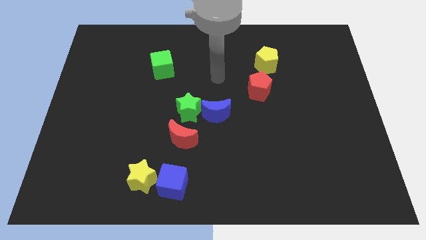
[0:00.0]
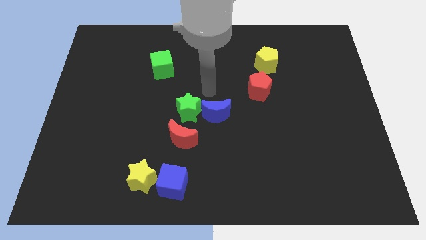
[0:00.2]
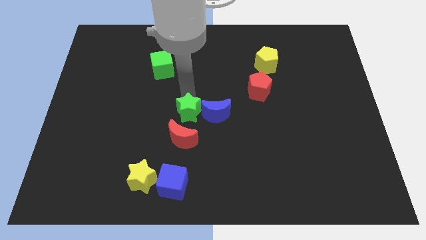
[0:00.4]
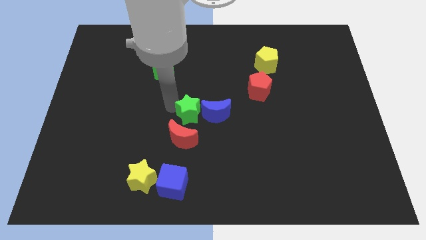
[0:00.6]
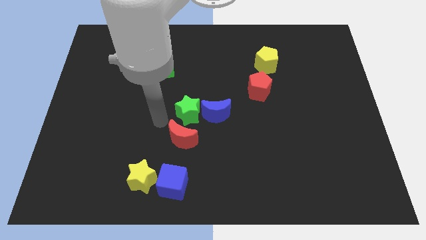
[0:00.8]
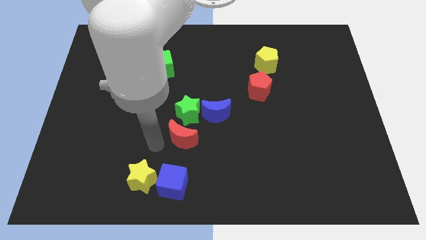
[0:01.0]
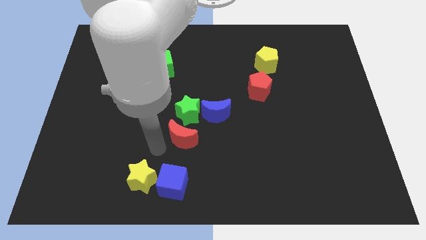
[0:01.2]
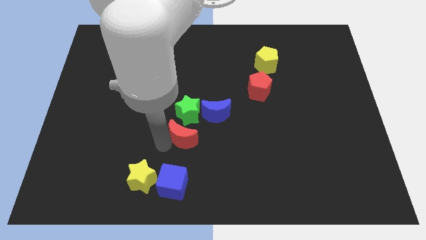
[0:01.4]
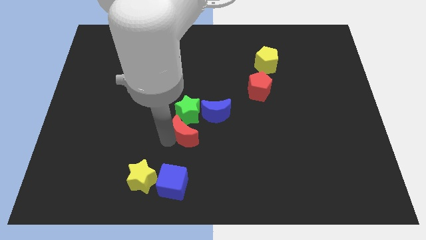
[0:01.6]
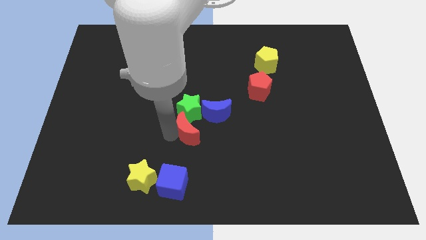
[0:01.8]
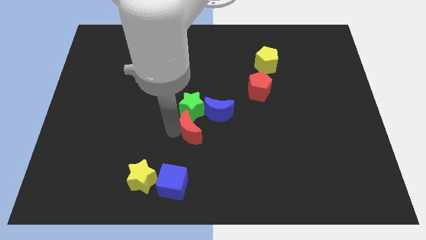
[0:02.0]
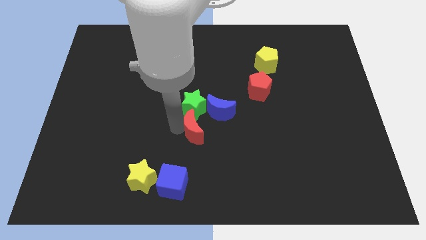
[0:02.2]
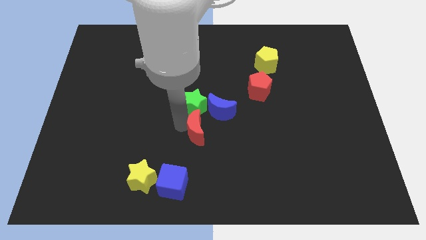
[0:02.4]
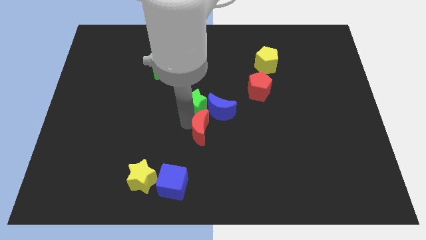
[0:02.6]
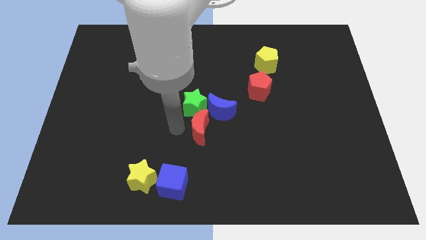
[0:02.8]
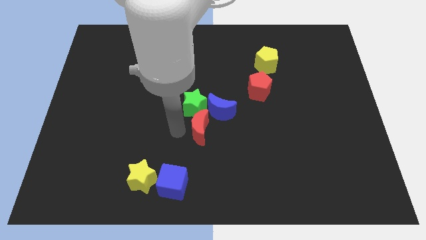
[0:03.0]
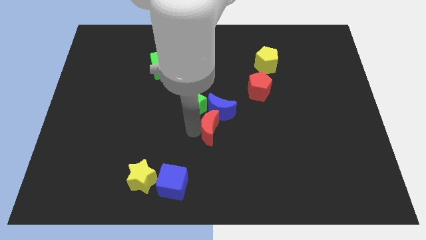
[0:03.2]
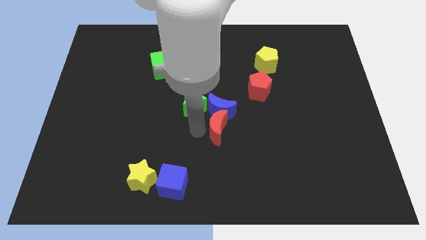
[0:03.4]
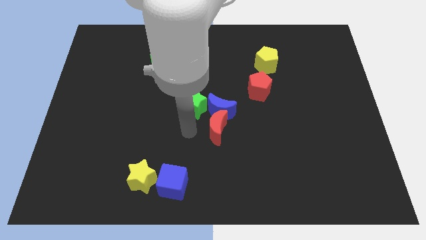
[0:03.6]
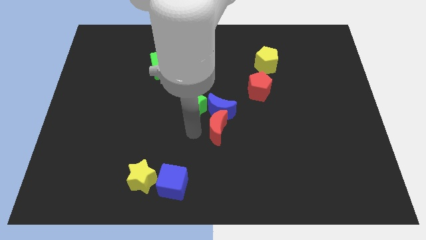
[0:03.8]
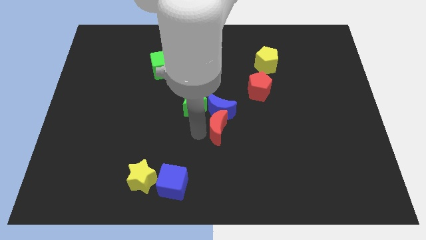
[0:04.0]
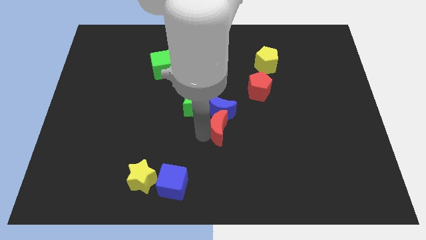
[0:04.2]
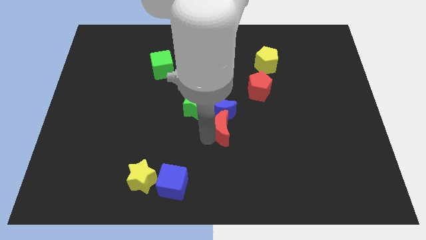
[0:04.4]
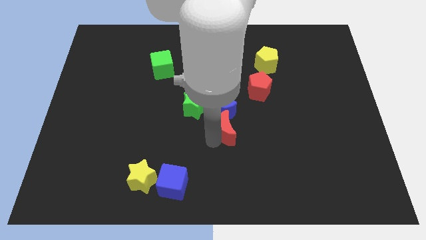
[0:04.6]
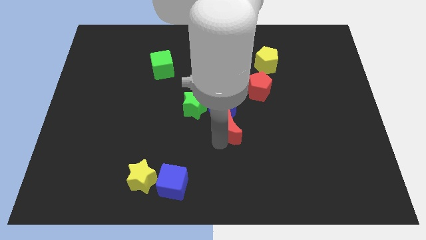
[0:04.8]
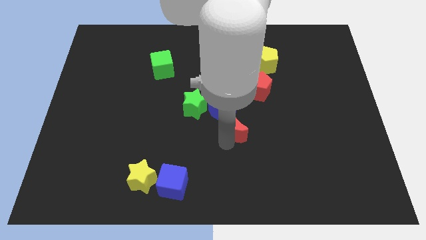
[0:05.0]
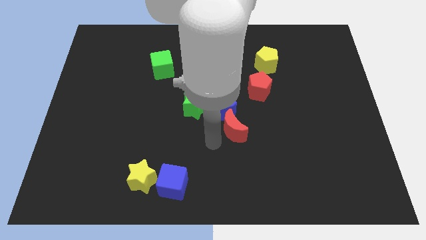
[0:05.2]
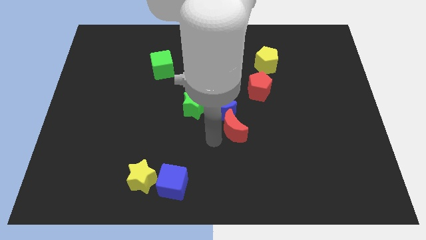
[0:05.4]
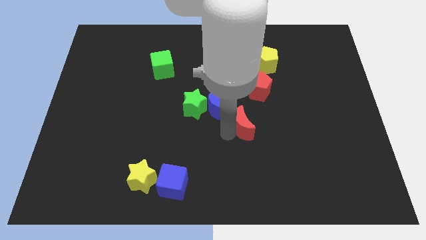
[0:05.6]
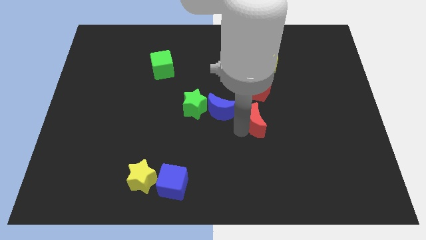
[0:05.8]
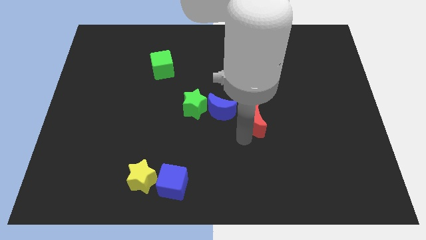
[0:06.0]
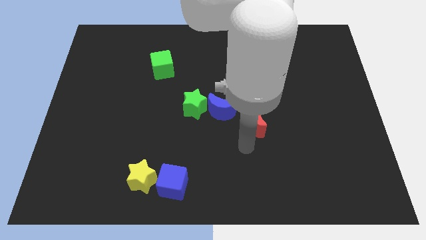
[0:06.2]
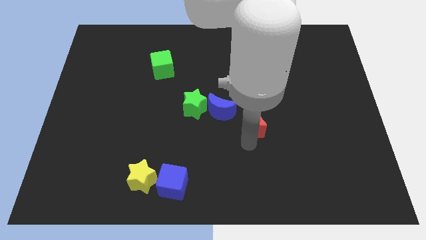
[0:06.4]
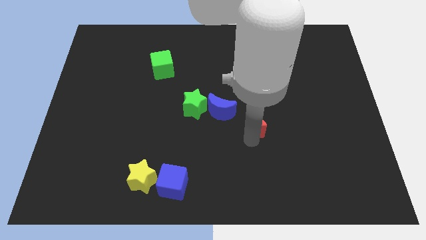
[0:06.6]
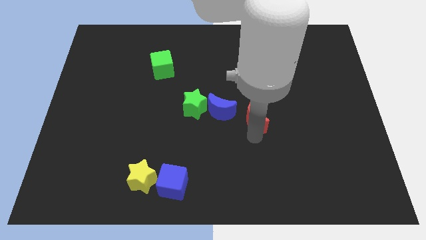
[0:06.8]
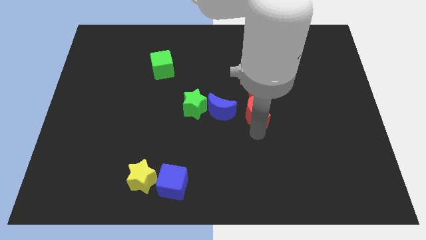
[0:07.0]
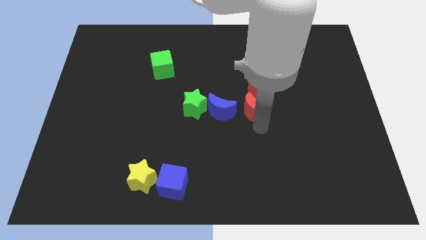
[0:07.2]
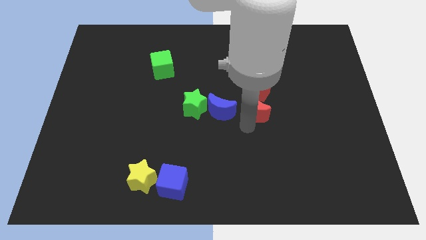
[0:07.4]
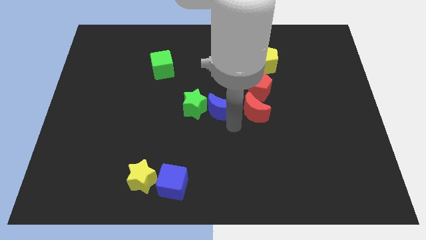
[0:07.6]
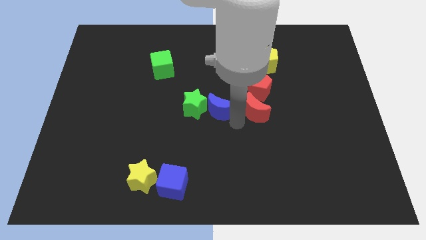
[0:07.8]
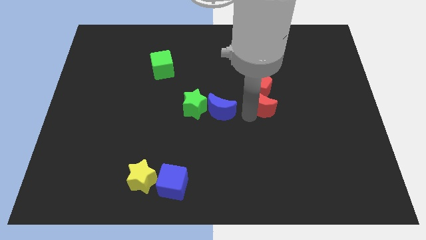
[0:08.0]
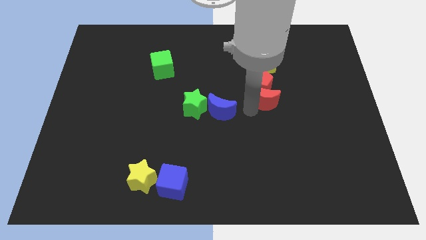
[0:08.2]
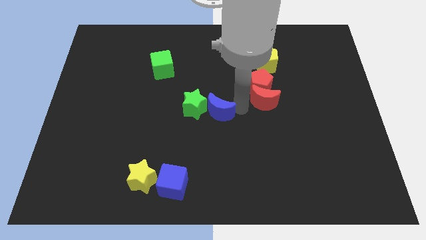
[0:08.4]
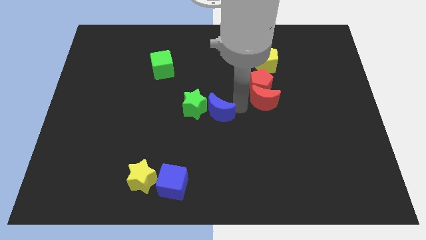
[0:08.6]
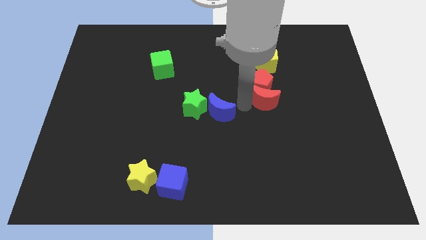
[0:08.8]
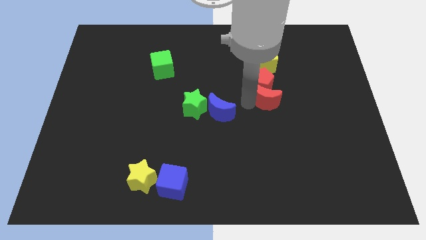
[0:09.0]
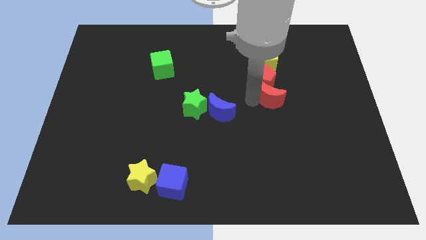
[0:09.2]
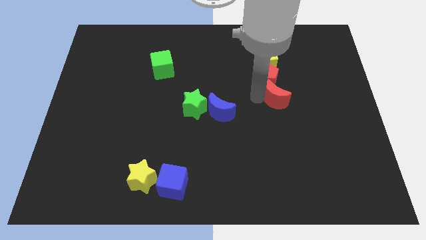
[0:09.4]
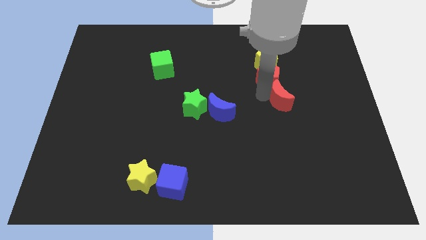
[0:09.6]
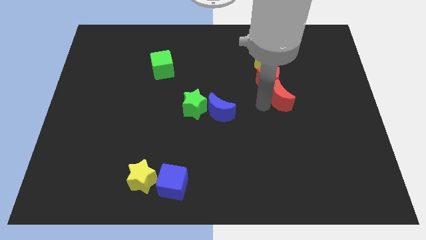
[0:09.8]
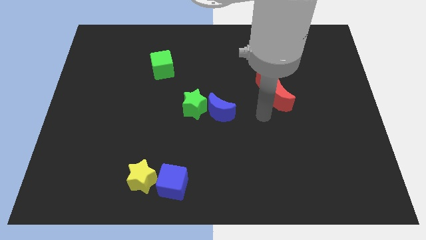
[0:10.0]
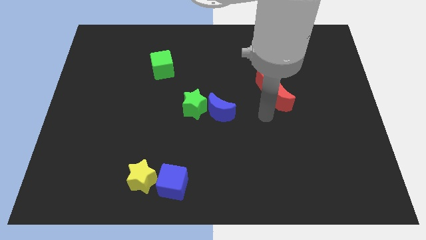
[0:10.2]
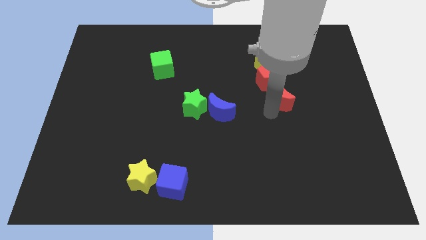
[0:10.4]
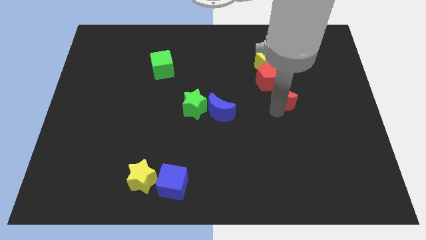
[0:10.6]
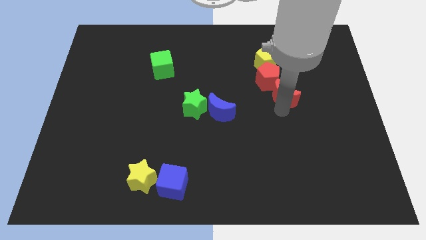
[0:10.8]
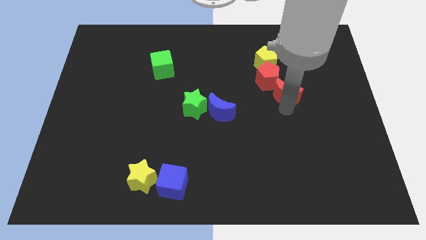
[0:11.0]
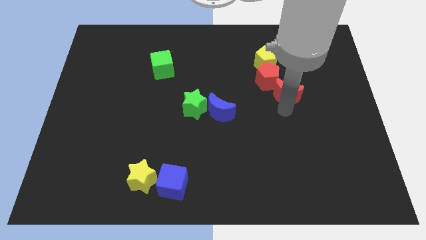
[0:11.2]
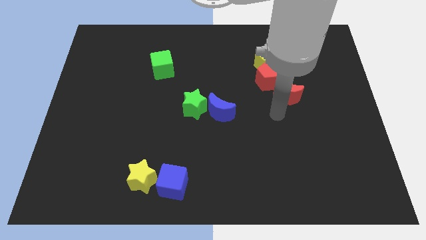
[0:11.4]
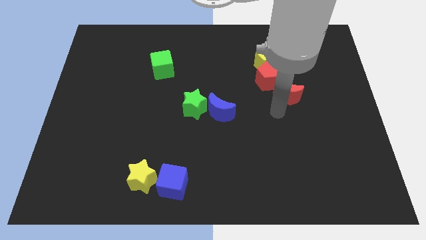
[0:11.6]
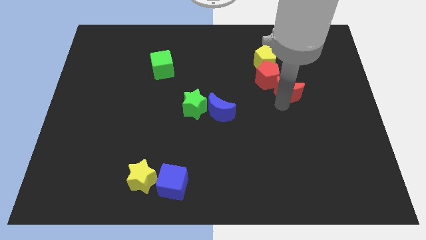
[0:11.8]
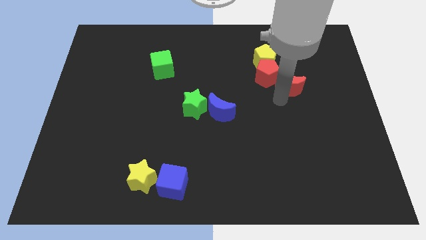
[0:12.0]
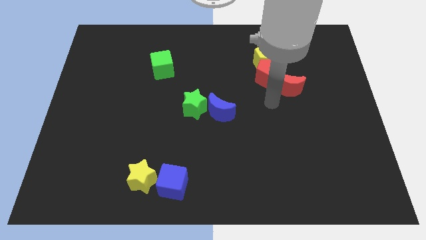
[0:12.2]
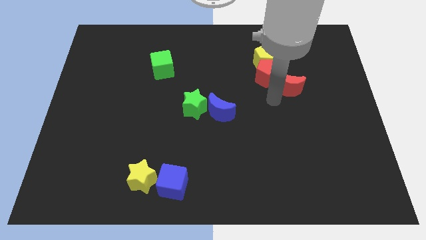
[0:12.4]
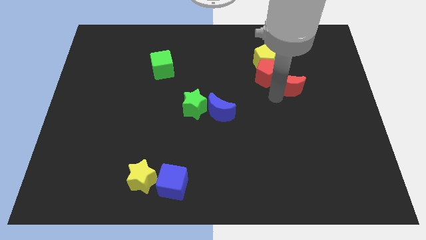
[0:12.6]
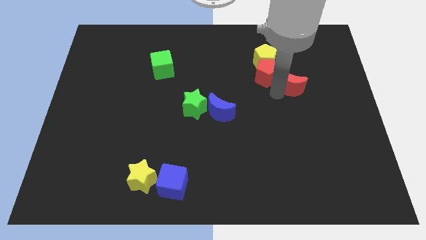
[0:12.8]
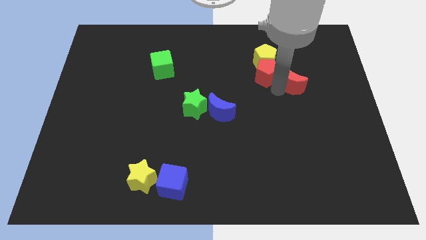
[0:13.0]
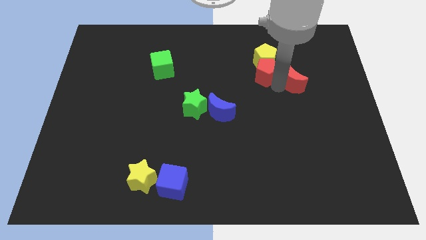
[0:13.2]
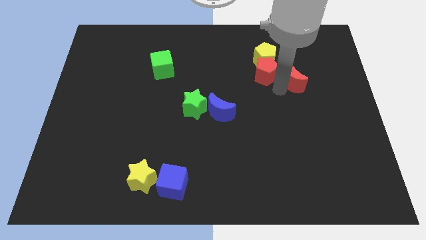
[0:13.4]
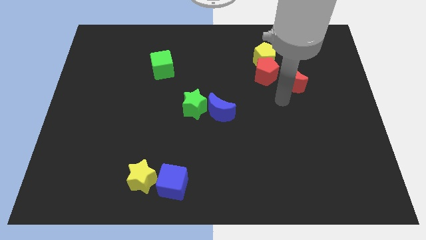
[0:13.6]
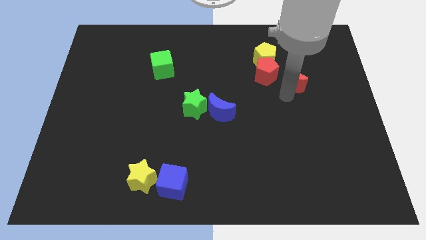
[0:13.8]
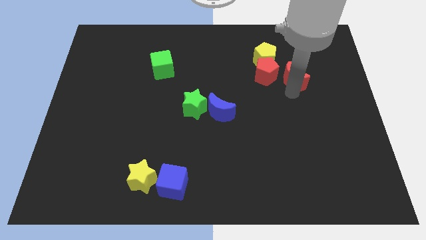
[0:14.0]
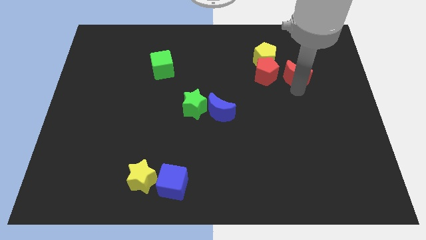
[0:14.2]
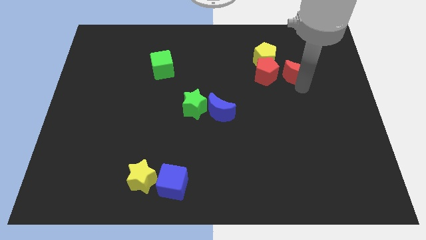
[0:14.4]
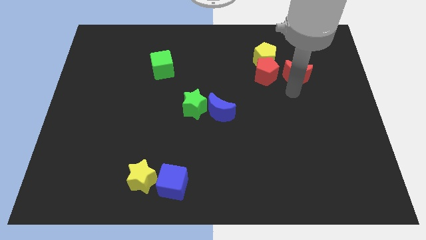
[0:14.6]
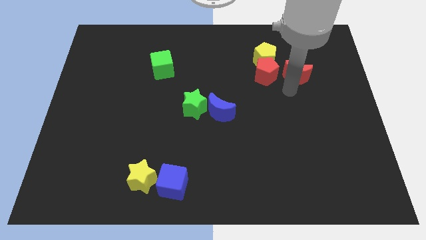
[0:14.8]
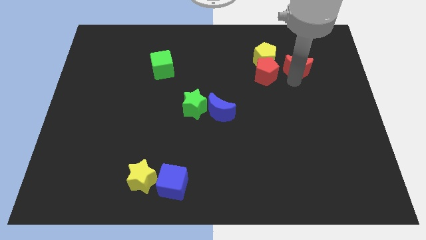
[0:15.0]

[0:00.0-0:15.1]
put the red moon right of the yellow pentagon
